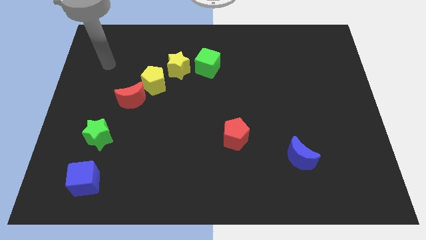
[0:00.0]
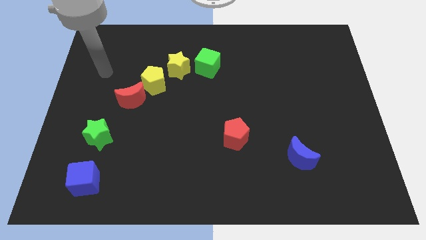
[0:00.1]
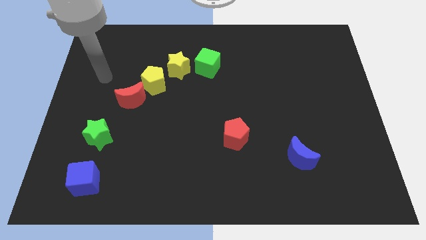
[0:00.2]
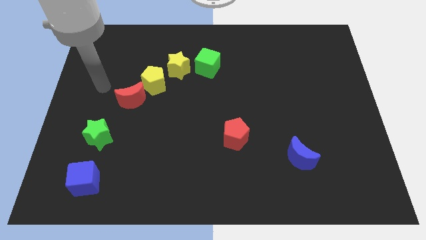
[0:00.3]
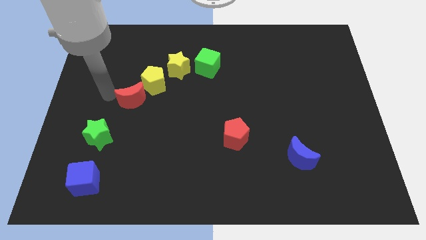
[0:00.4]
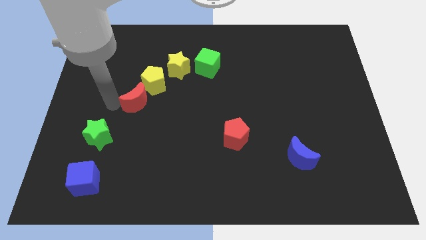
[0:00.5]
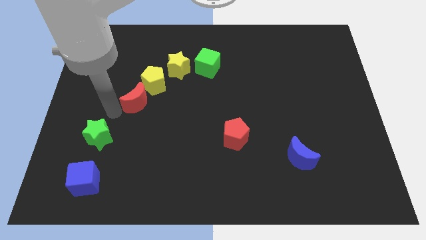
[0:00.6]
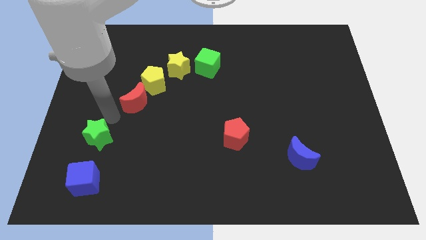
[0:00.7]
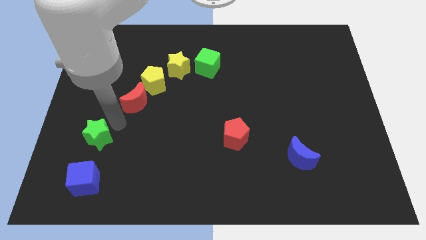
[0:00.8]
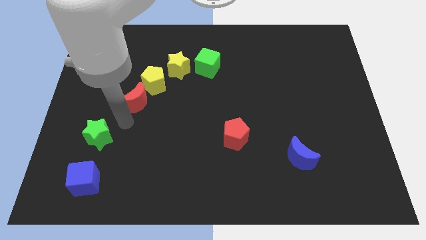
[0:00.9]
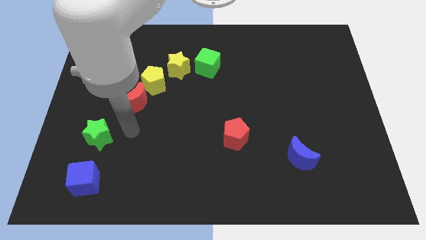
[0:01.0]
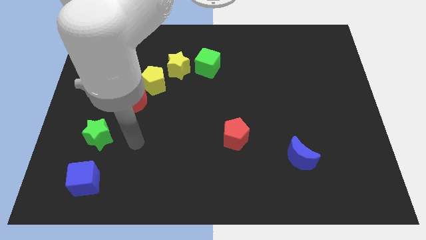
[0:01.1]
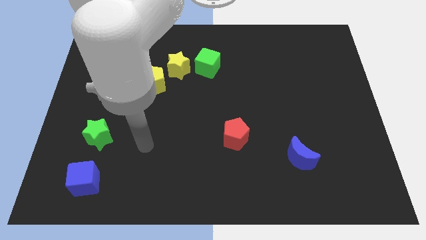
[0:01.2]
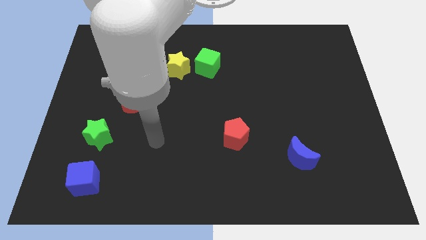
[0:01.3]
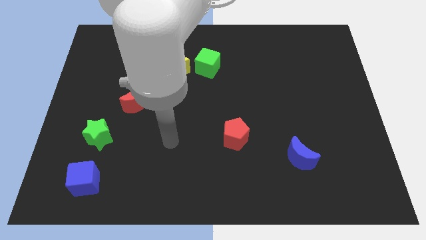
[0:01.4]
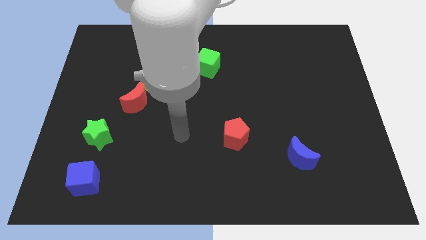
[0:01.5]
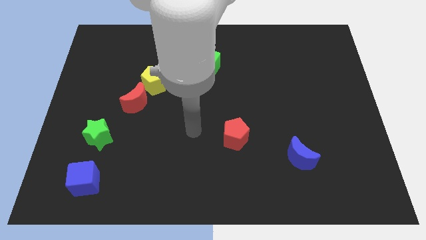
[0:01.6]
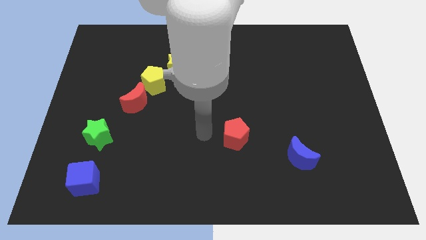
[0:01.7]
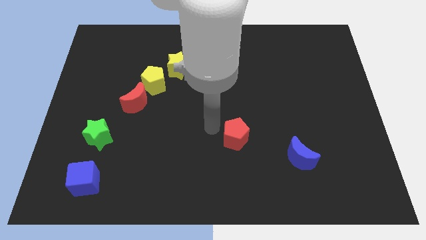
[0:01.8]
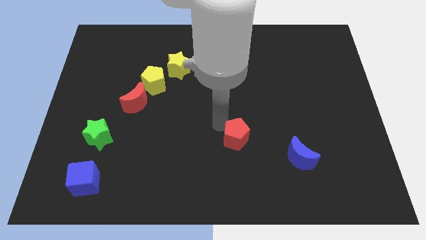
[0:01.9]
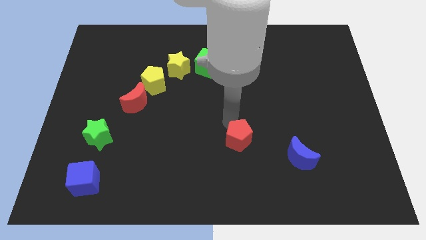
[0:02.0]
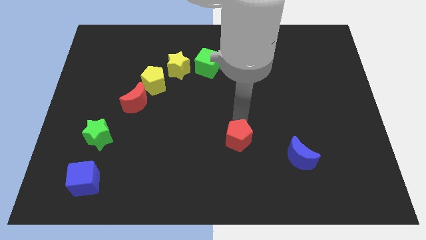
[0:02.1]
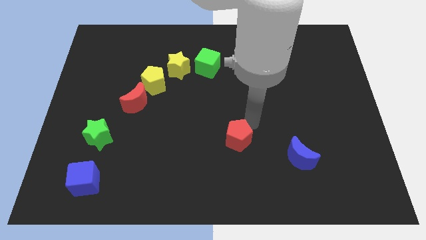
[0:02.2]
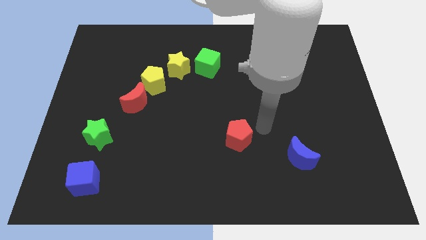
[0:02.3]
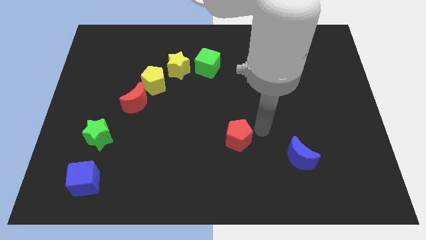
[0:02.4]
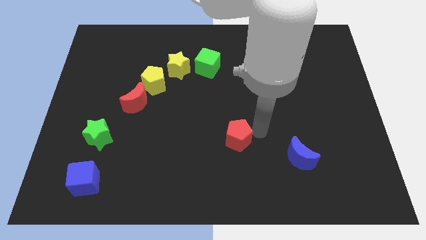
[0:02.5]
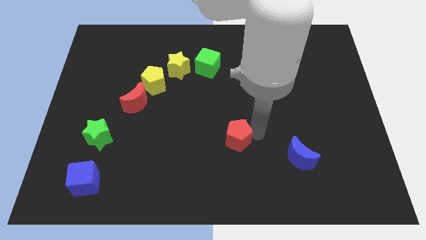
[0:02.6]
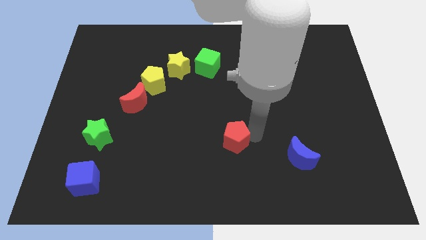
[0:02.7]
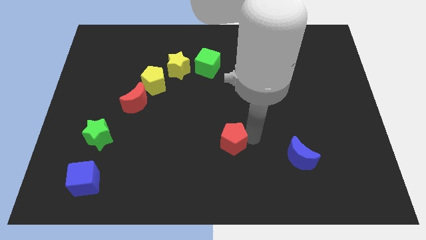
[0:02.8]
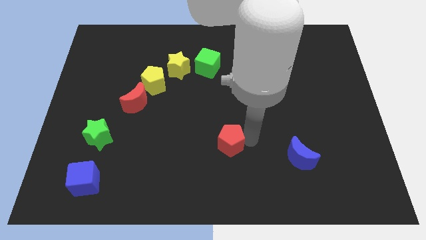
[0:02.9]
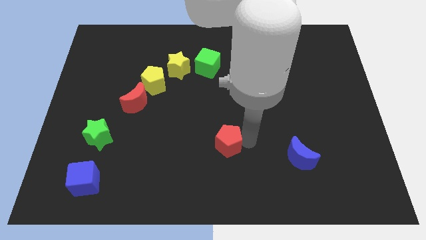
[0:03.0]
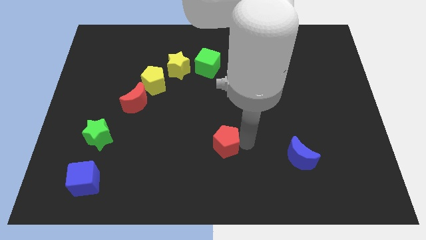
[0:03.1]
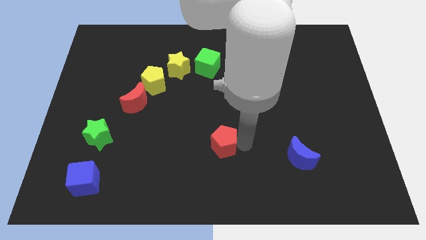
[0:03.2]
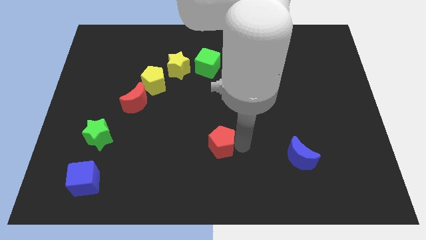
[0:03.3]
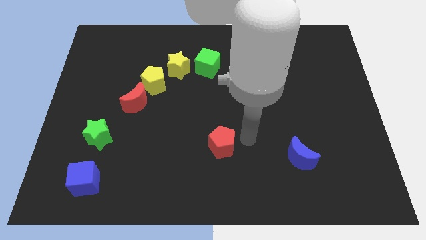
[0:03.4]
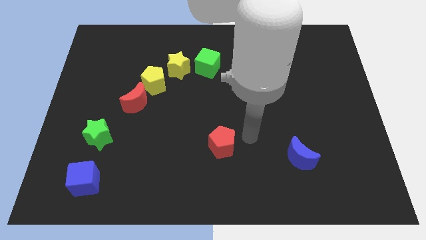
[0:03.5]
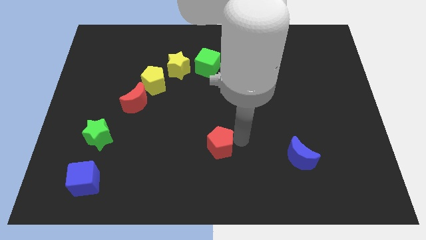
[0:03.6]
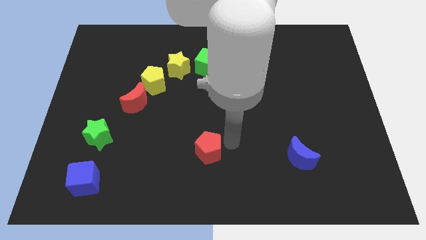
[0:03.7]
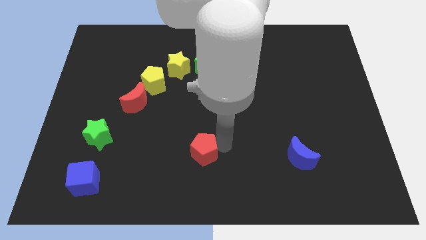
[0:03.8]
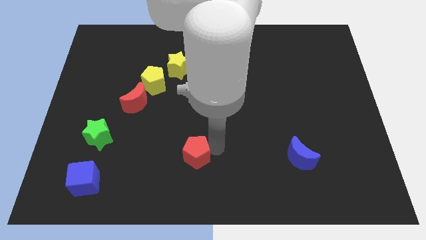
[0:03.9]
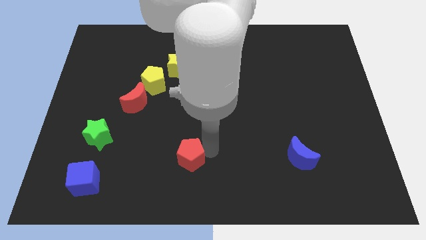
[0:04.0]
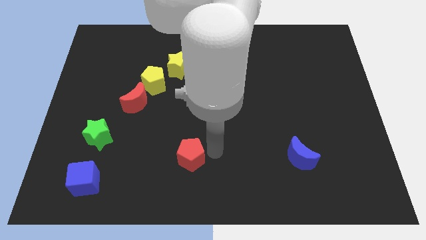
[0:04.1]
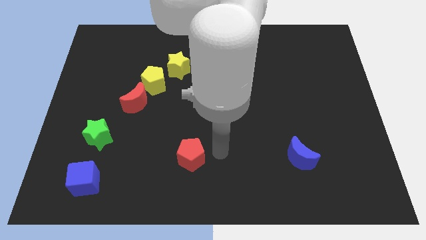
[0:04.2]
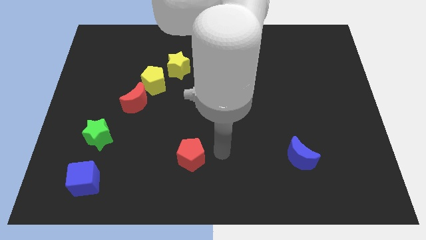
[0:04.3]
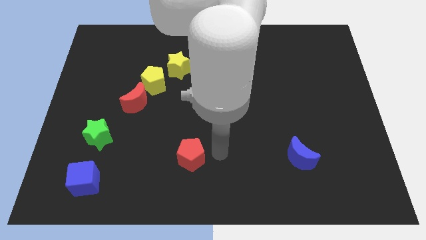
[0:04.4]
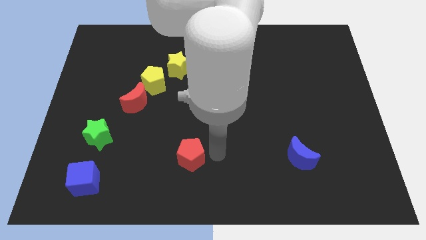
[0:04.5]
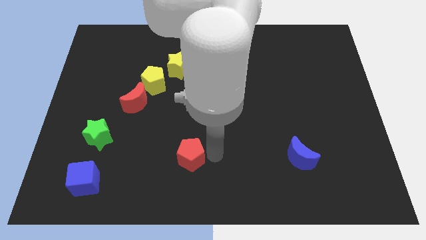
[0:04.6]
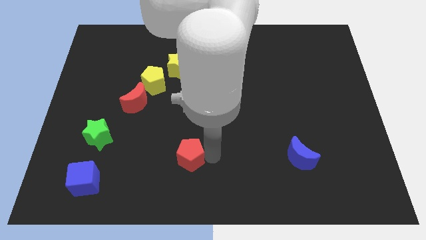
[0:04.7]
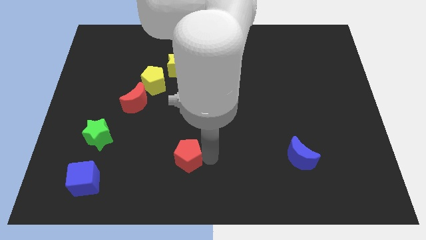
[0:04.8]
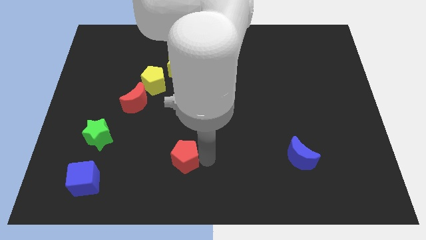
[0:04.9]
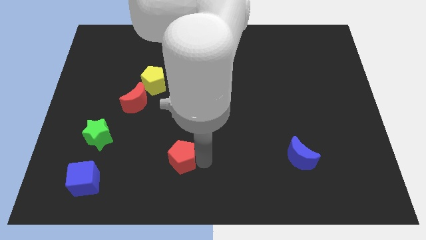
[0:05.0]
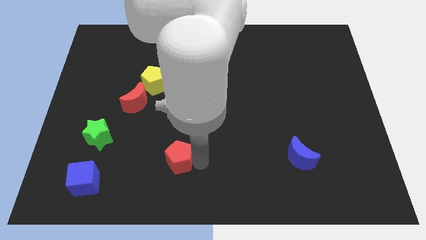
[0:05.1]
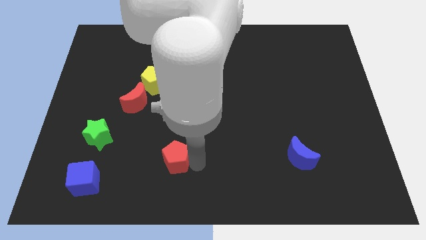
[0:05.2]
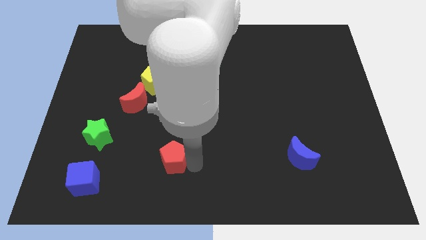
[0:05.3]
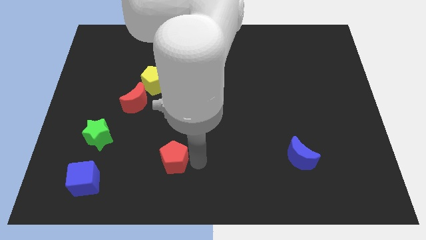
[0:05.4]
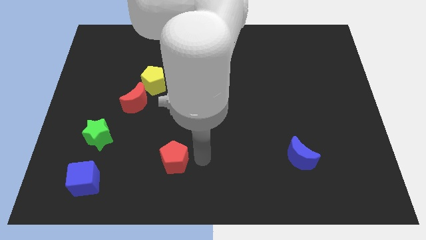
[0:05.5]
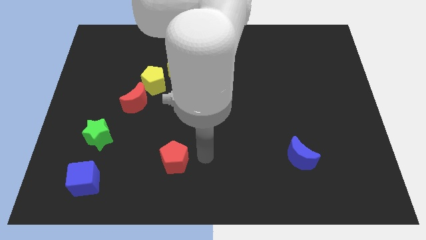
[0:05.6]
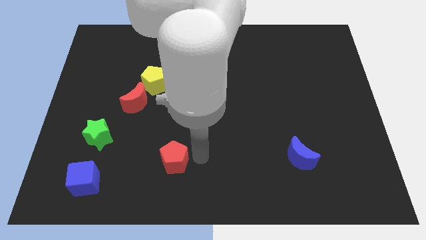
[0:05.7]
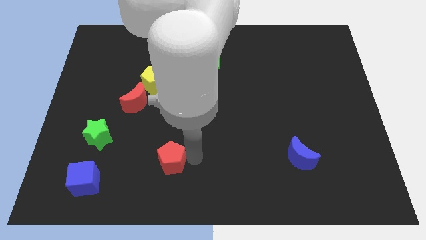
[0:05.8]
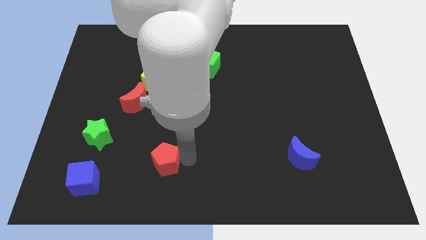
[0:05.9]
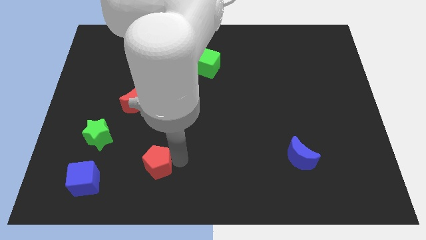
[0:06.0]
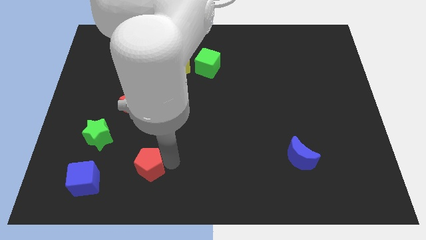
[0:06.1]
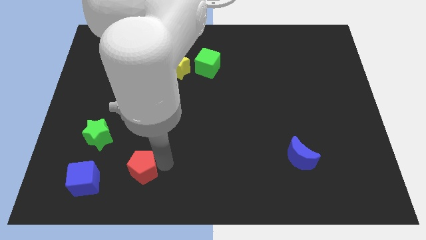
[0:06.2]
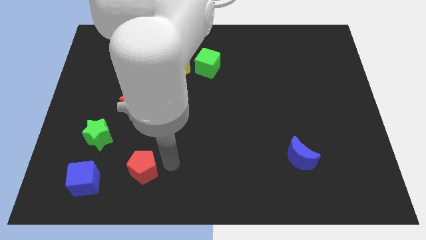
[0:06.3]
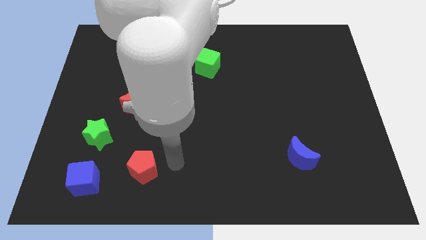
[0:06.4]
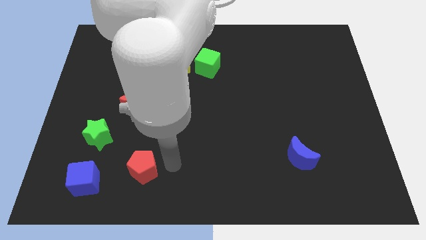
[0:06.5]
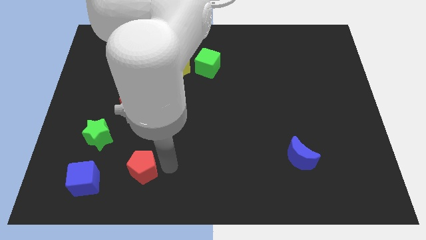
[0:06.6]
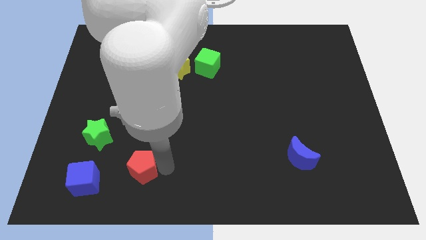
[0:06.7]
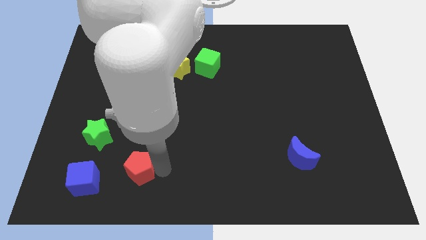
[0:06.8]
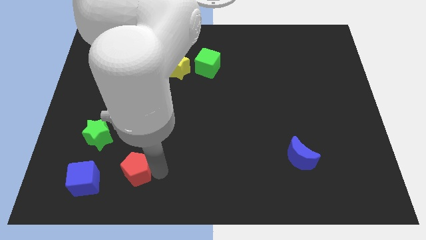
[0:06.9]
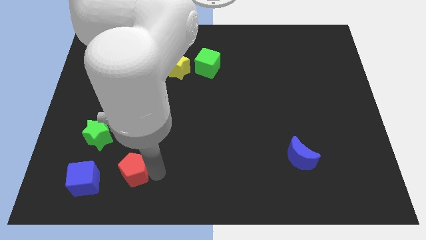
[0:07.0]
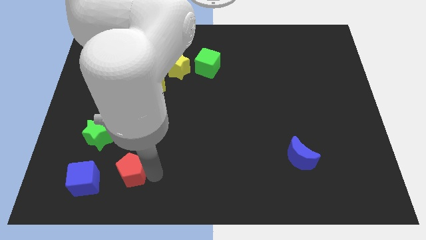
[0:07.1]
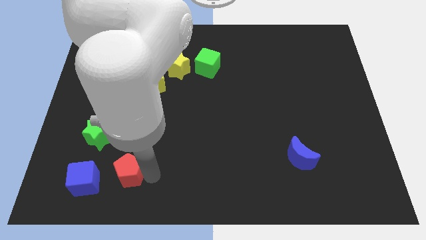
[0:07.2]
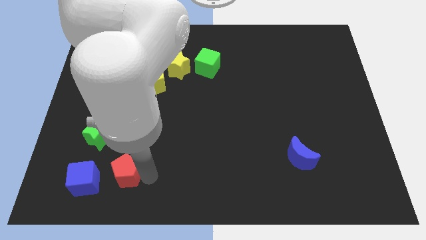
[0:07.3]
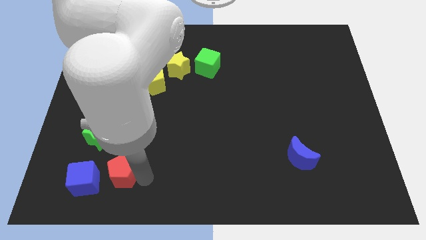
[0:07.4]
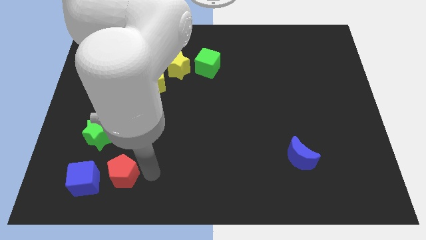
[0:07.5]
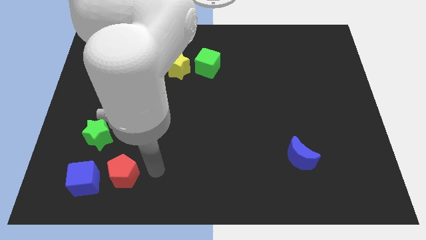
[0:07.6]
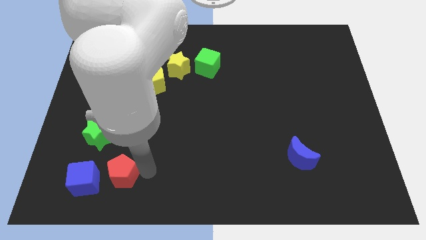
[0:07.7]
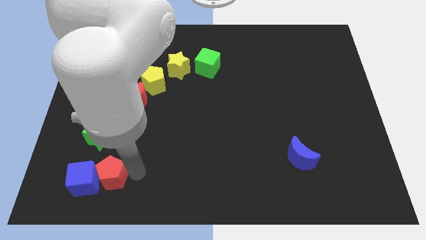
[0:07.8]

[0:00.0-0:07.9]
push the red pentagon towards the blue cube
